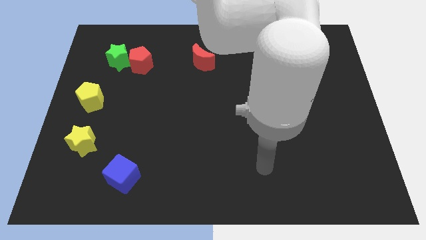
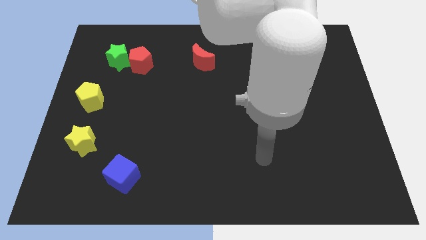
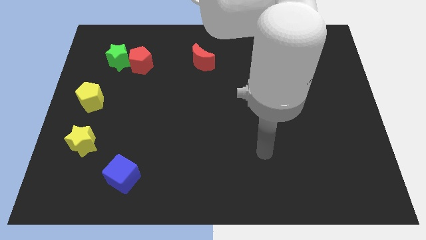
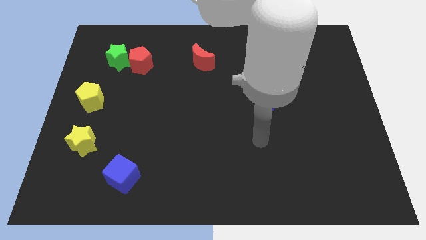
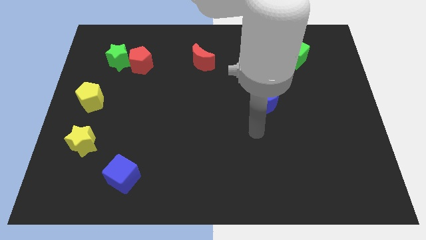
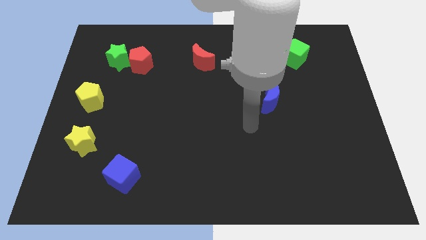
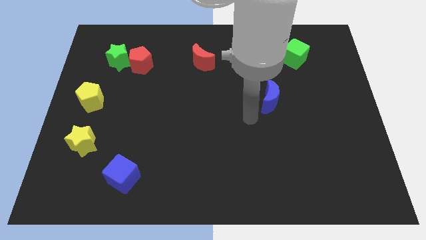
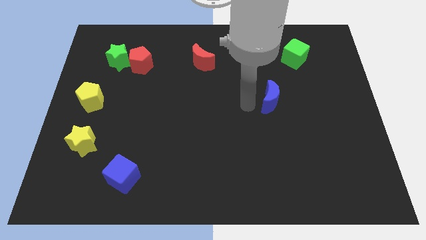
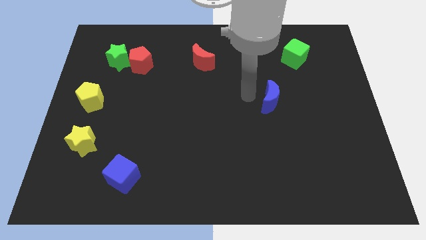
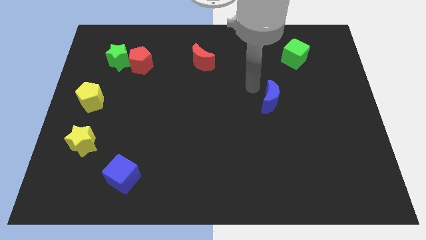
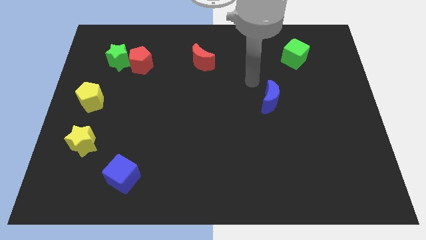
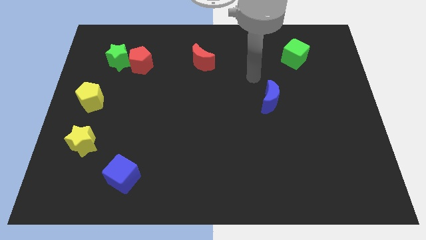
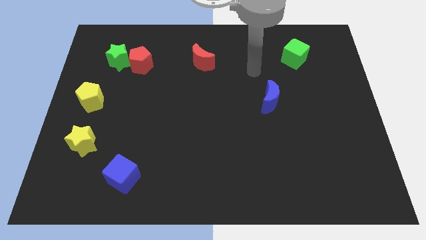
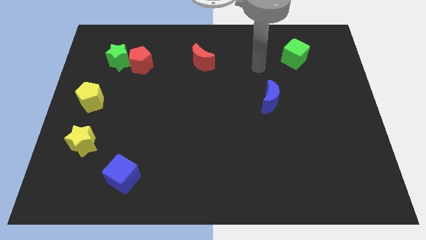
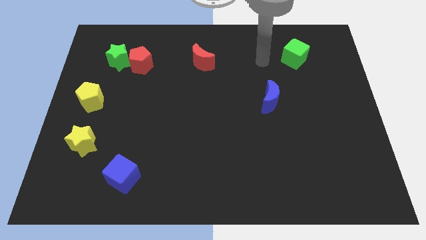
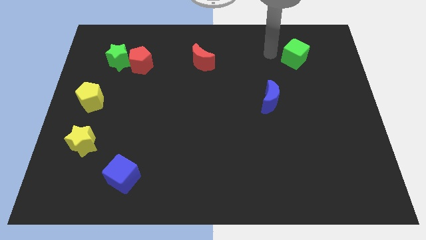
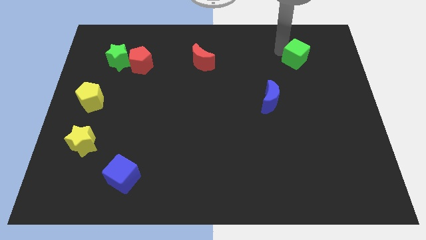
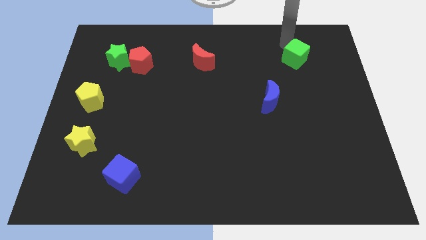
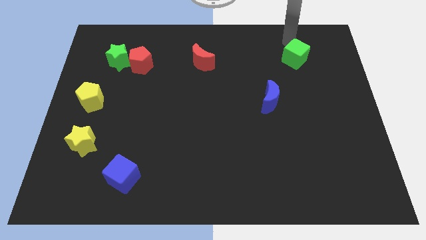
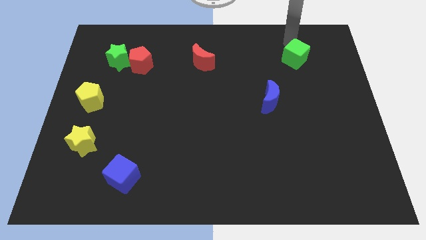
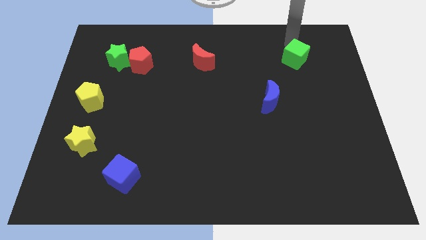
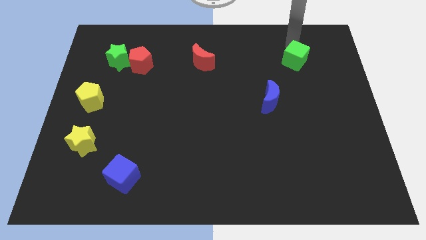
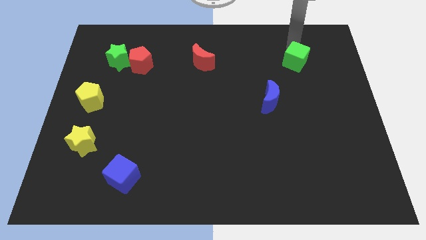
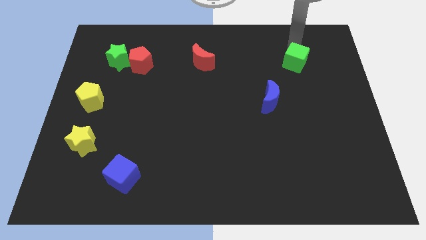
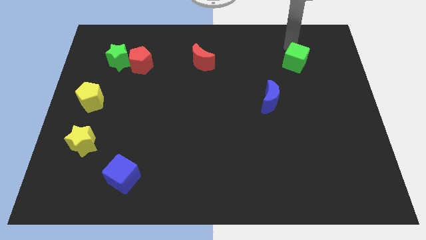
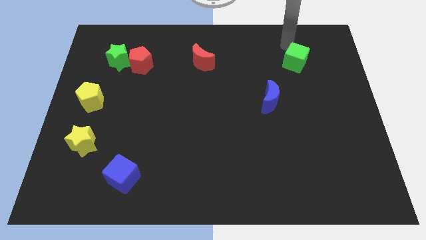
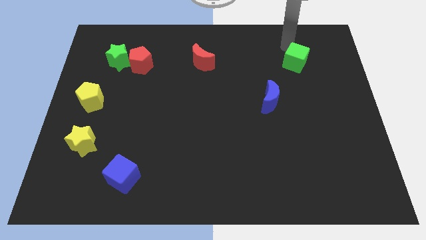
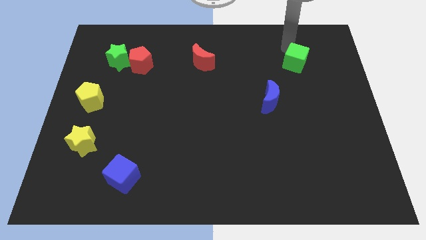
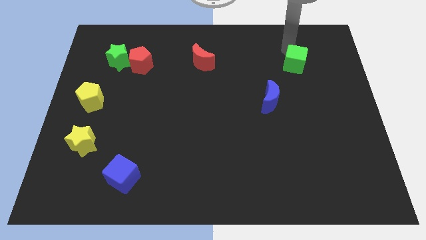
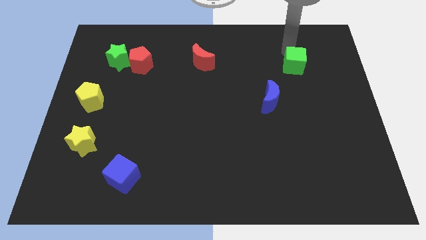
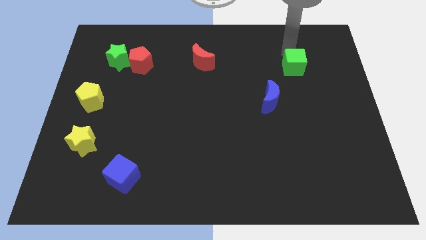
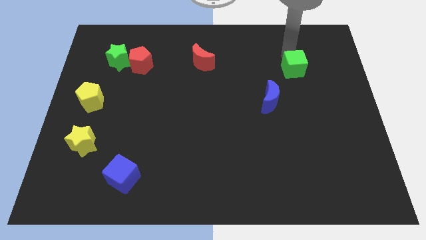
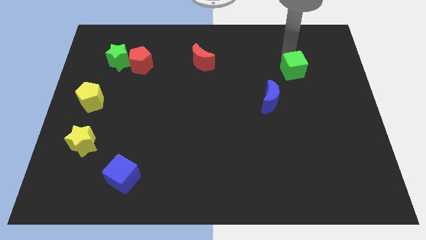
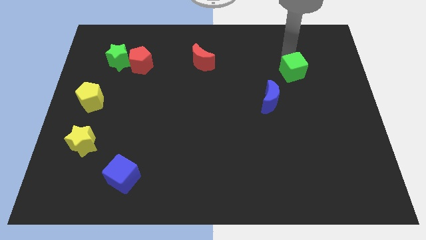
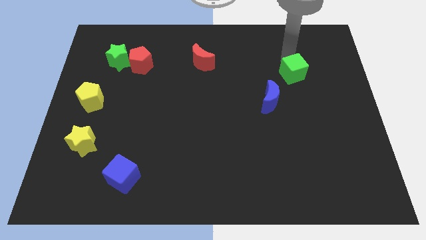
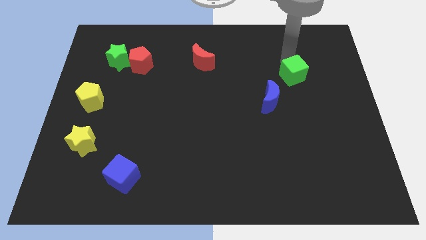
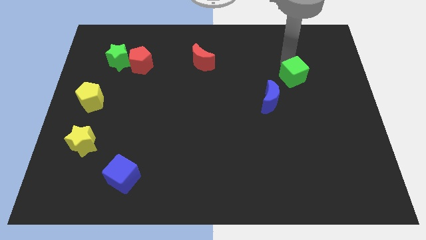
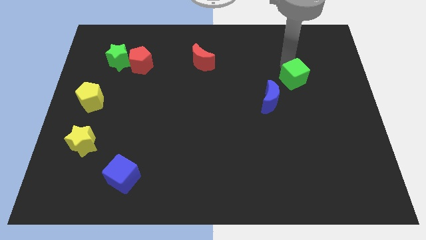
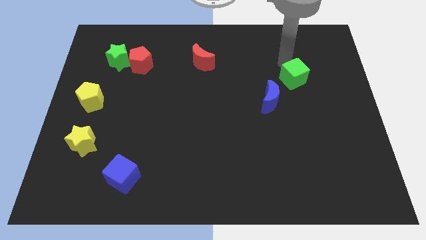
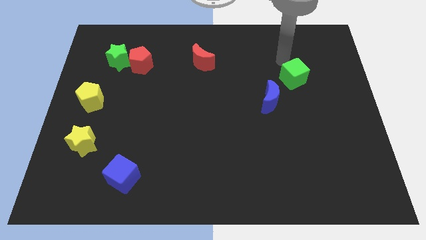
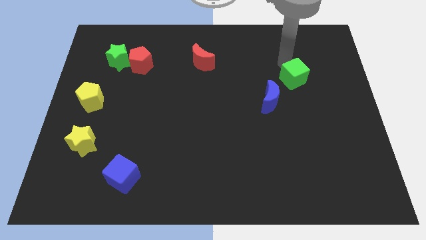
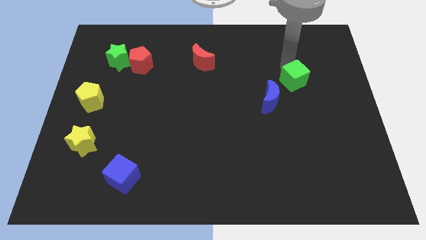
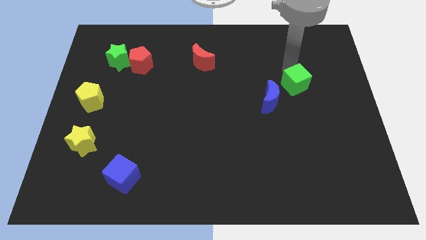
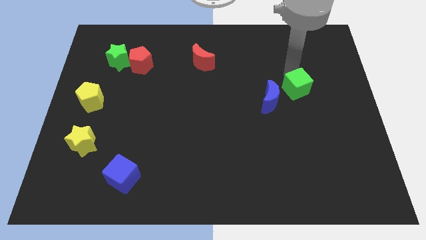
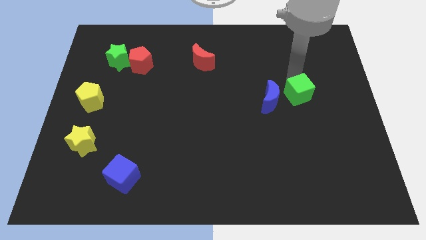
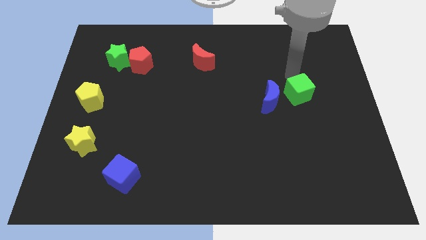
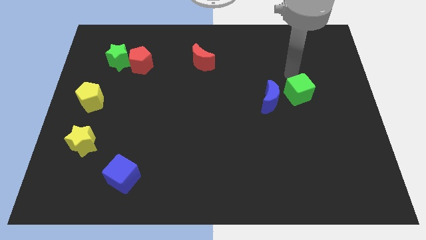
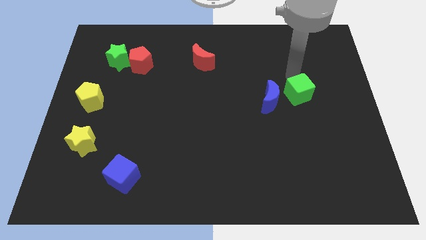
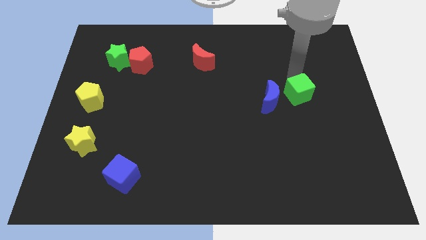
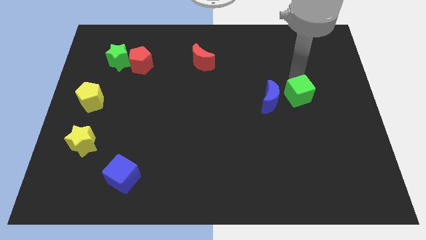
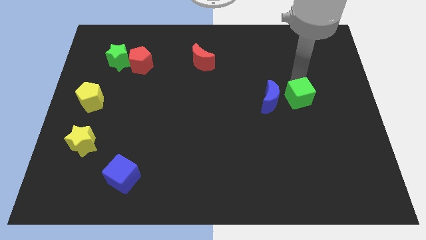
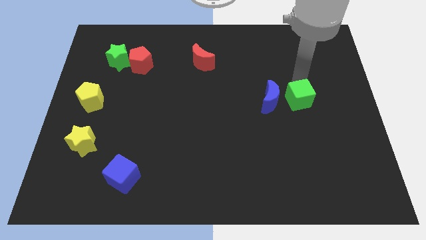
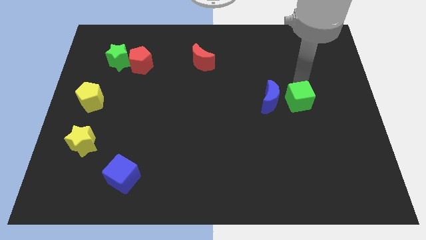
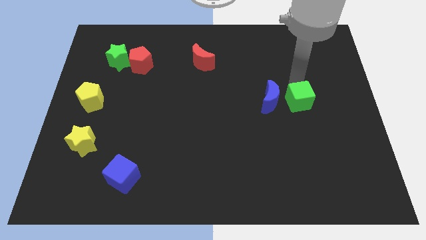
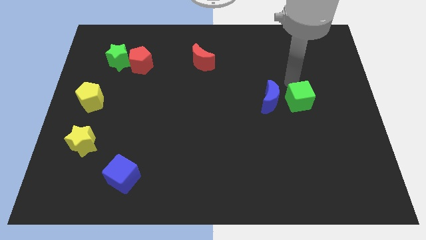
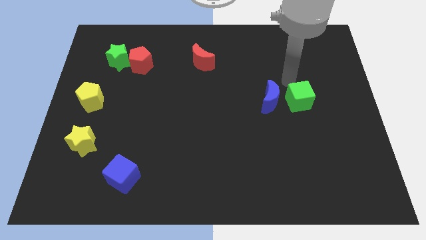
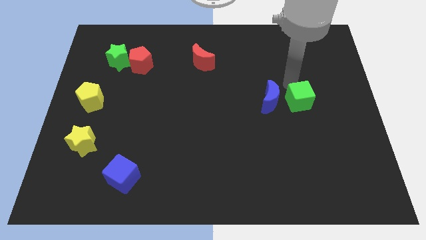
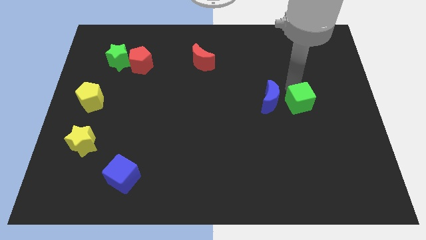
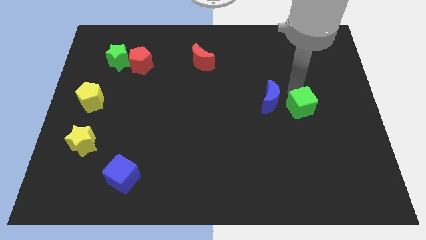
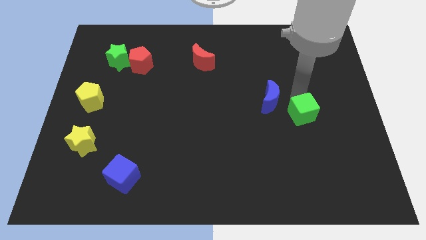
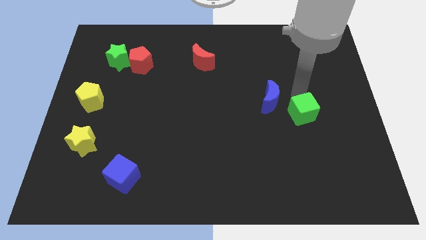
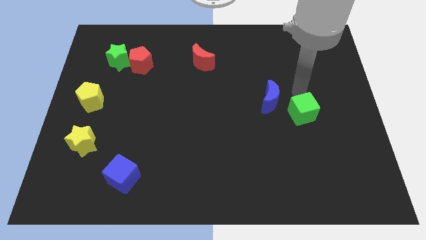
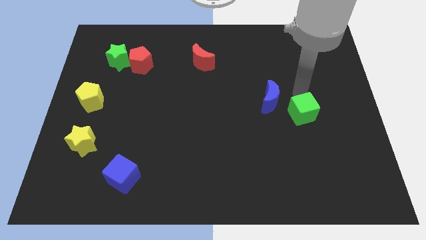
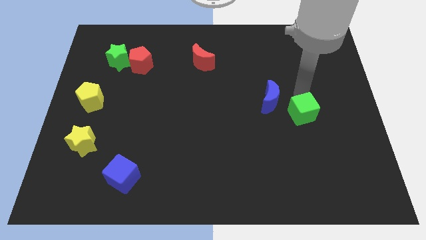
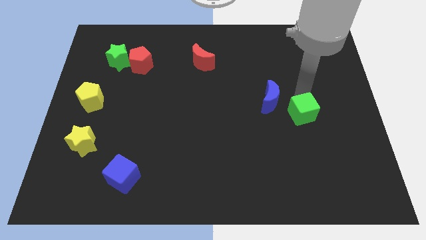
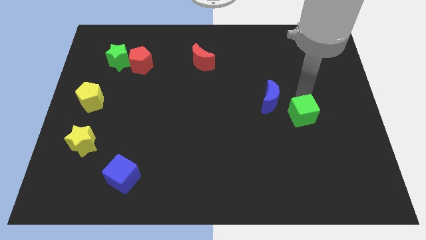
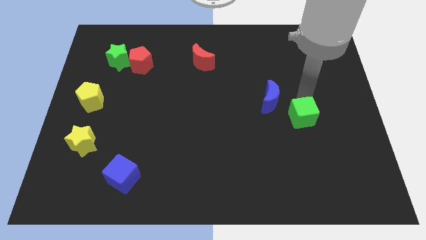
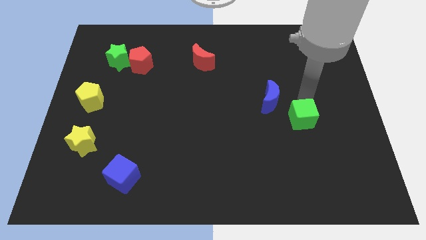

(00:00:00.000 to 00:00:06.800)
move the green cube down

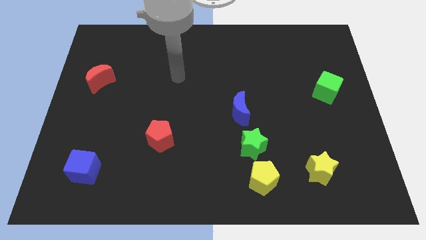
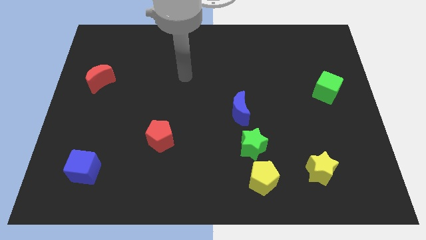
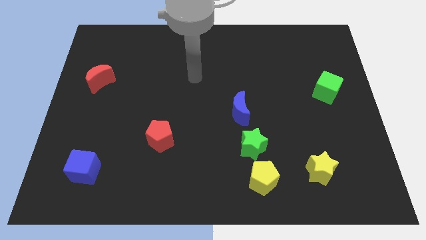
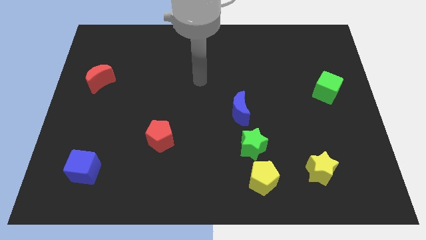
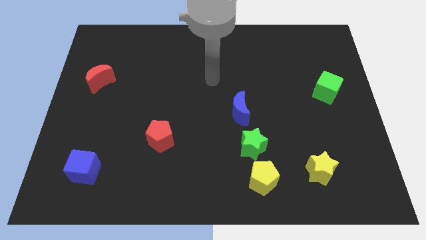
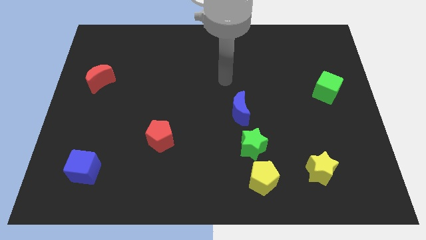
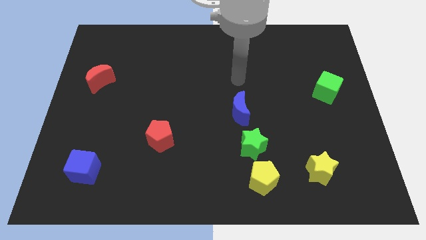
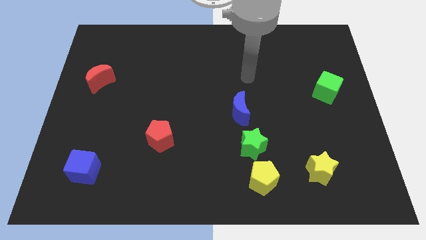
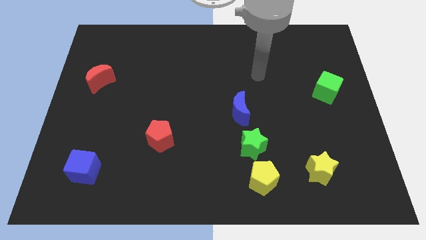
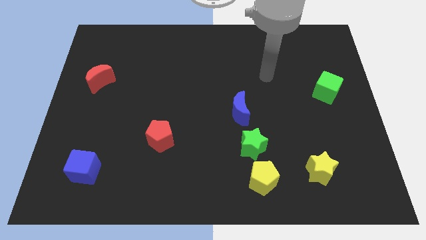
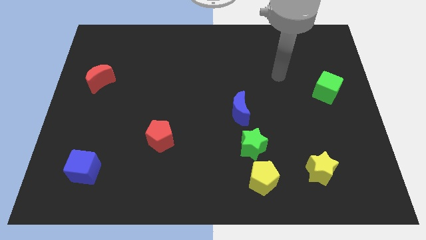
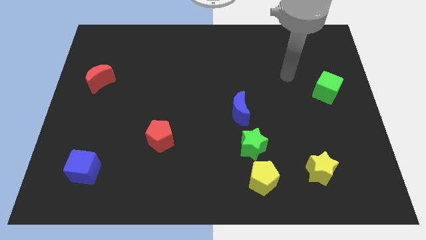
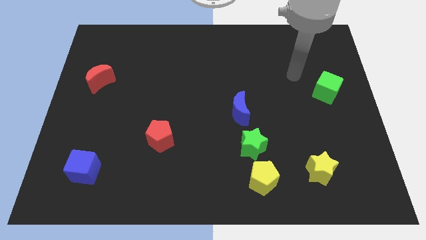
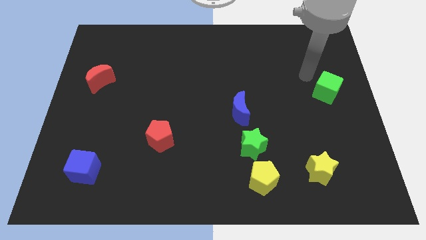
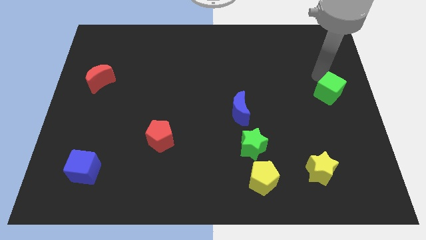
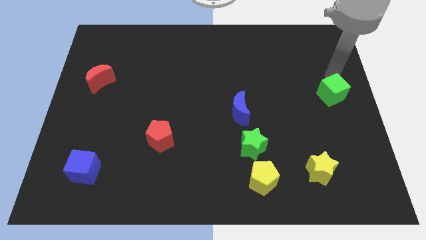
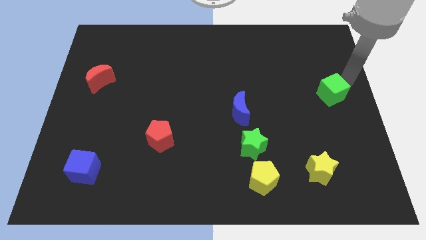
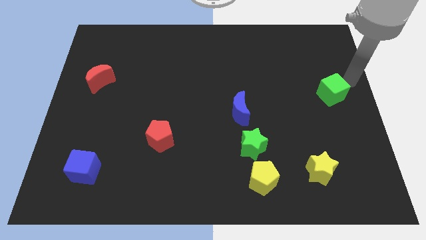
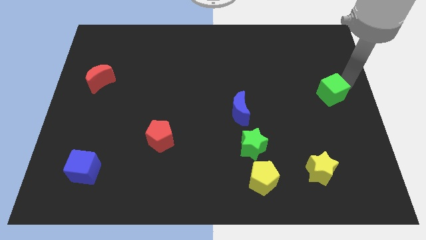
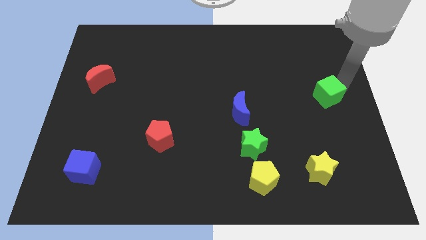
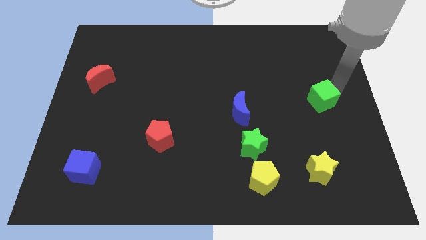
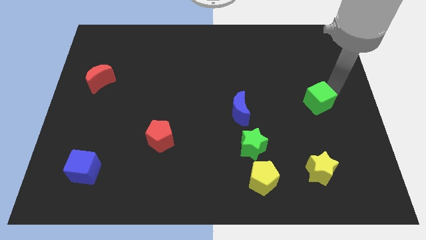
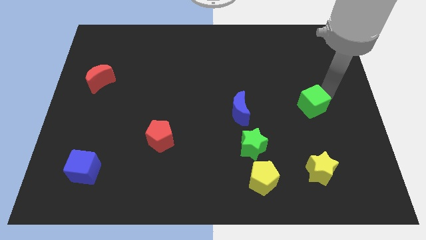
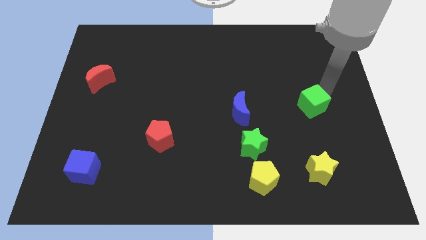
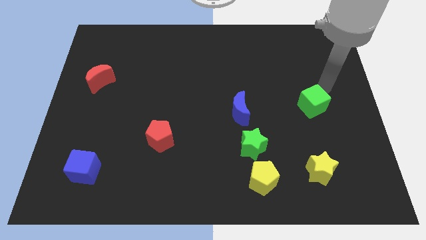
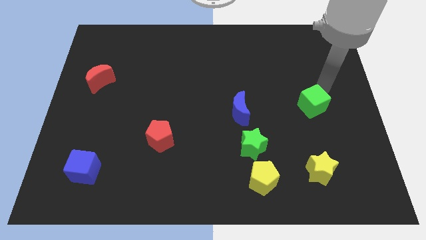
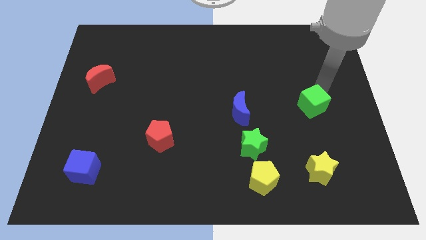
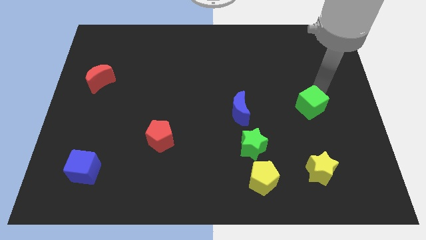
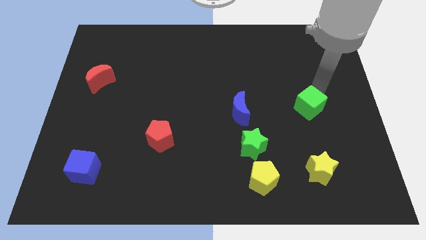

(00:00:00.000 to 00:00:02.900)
move the green cube downwards and then to the left a bit
